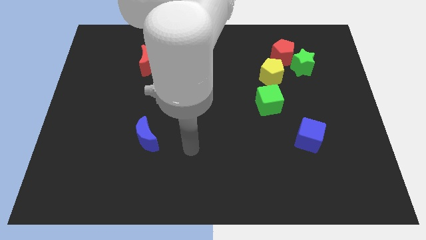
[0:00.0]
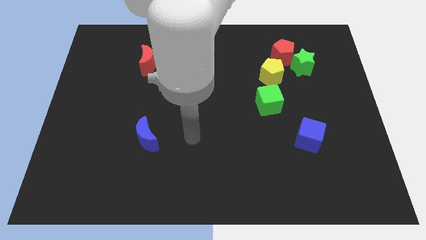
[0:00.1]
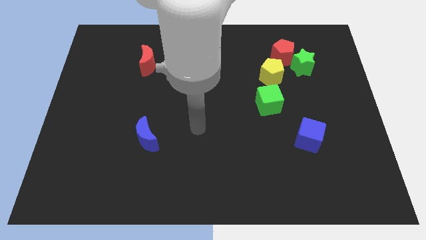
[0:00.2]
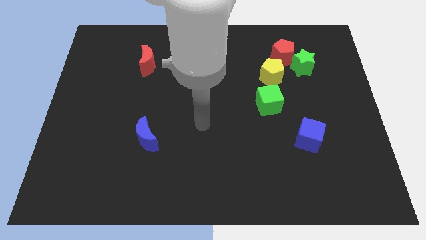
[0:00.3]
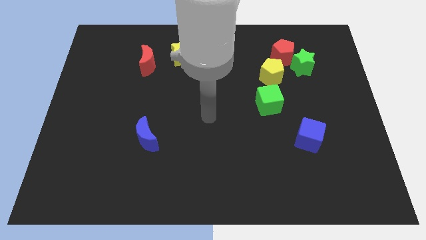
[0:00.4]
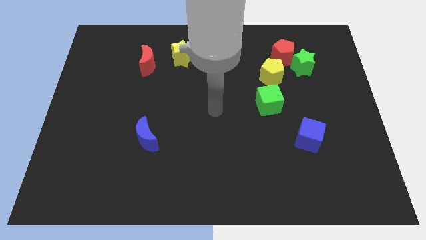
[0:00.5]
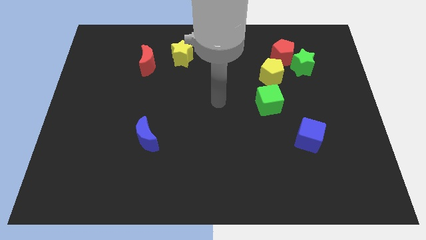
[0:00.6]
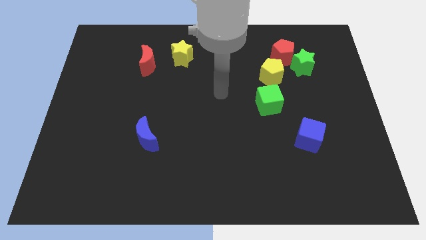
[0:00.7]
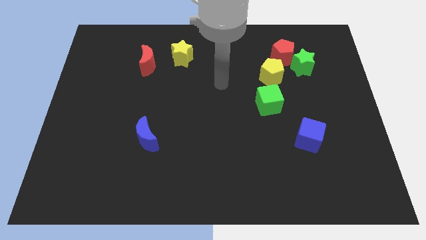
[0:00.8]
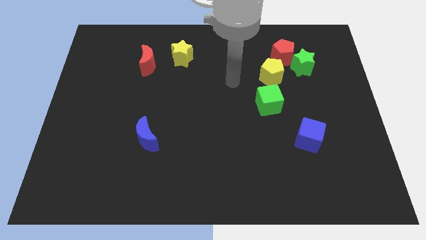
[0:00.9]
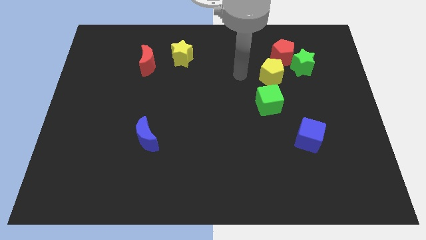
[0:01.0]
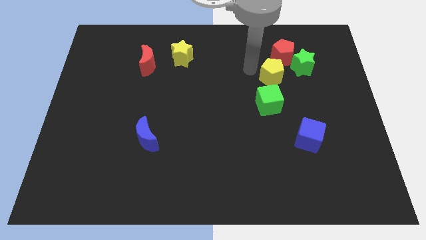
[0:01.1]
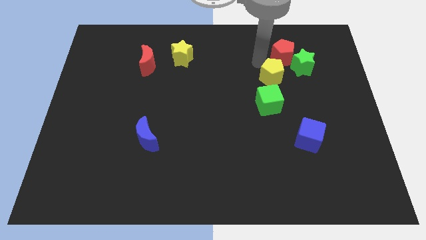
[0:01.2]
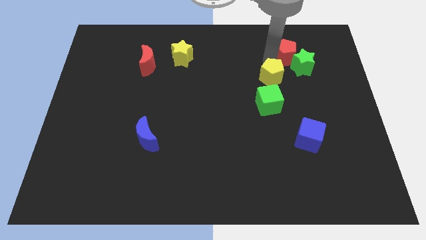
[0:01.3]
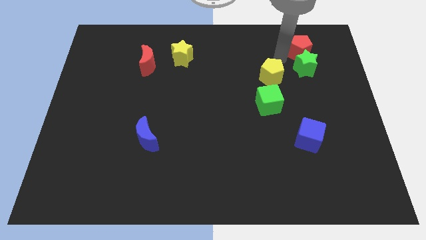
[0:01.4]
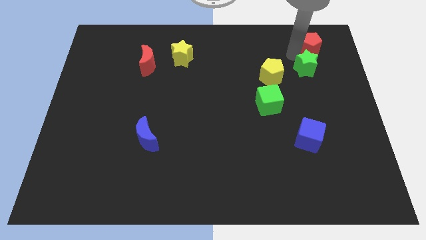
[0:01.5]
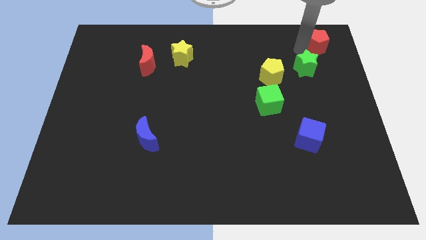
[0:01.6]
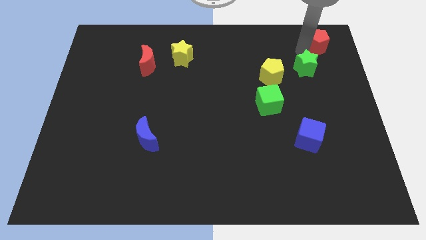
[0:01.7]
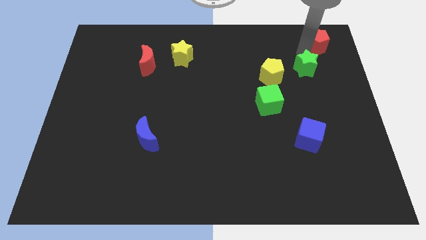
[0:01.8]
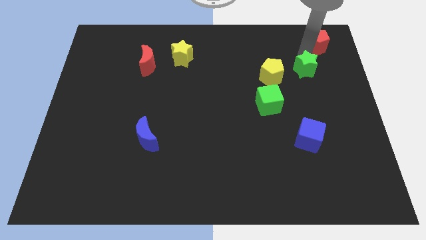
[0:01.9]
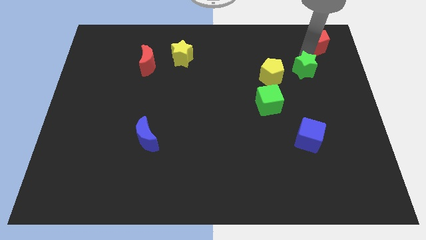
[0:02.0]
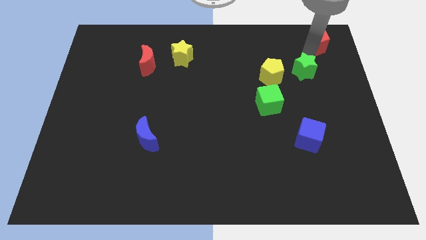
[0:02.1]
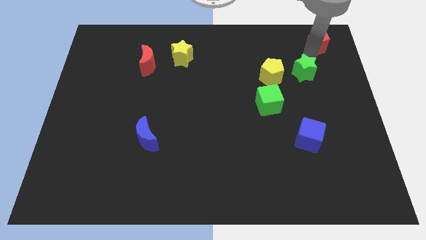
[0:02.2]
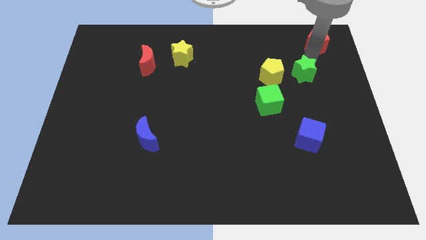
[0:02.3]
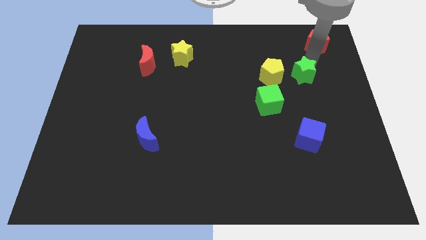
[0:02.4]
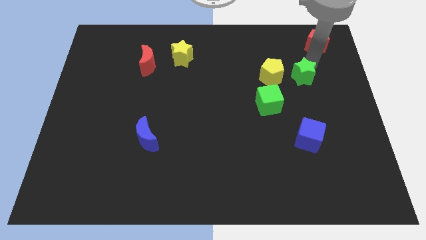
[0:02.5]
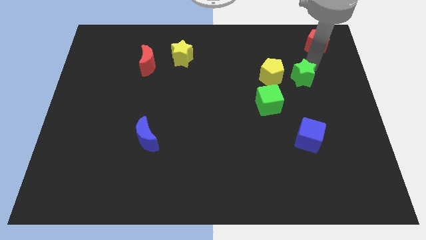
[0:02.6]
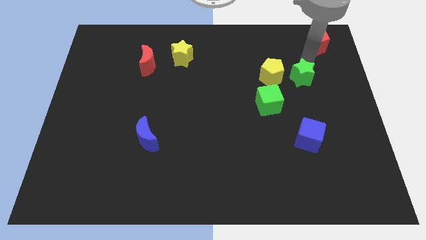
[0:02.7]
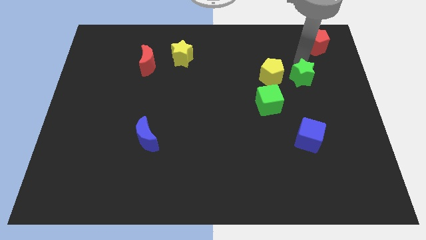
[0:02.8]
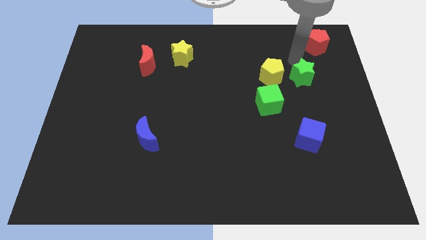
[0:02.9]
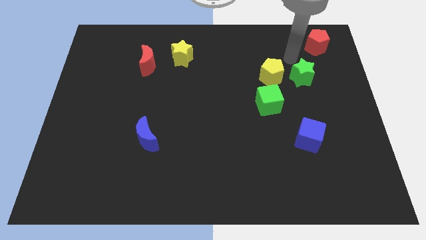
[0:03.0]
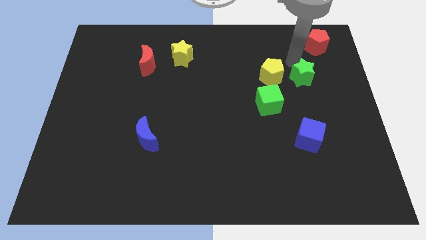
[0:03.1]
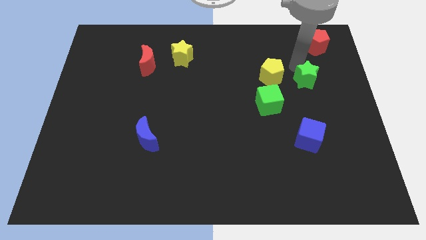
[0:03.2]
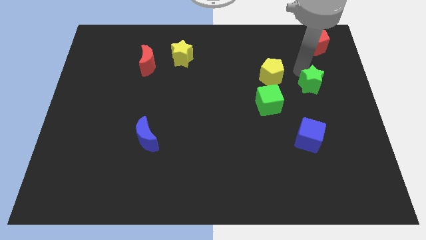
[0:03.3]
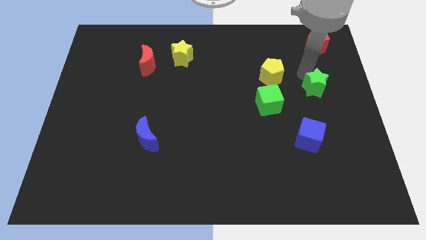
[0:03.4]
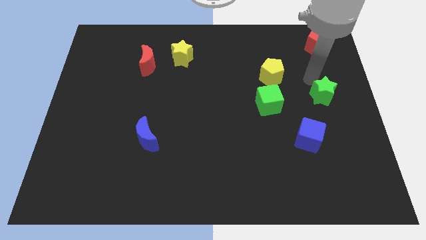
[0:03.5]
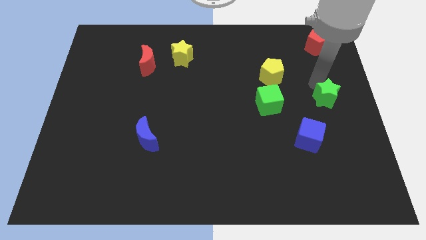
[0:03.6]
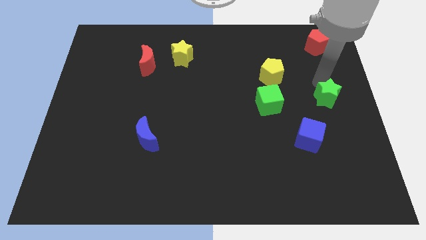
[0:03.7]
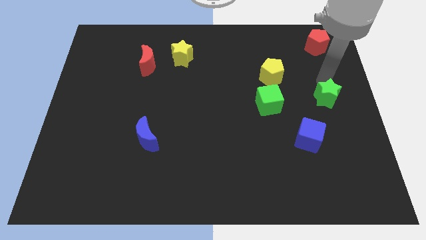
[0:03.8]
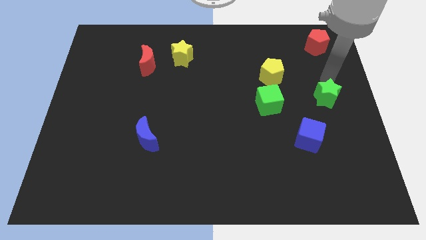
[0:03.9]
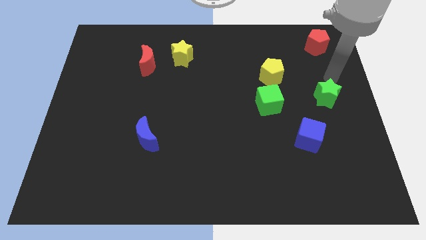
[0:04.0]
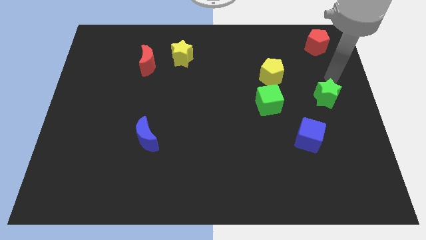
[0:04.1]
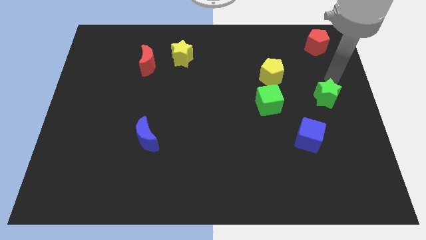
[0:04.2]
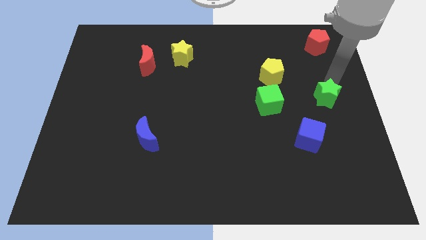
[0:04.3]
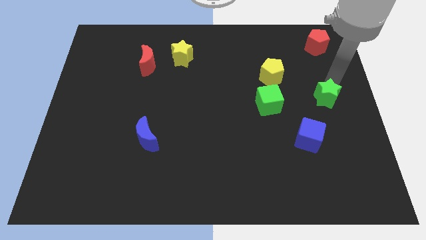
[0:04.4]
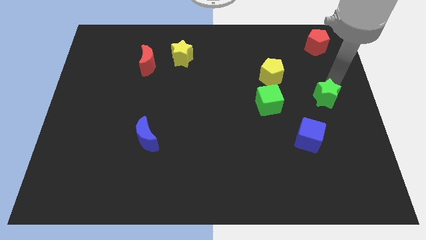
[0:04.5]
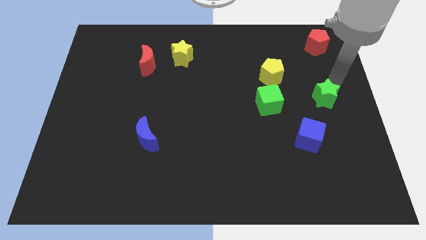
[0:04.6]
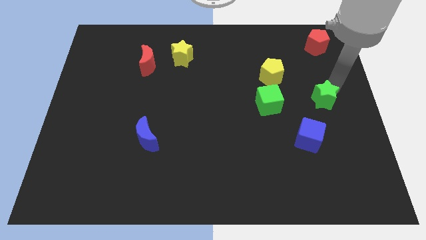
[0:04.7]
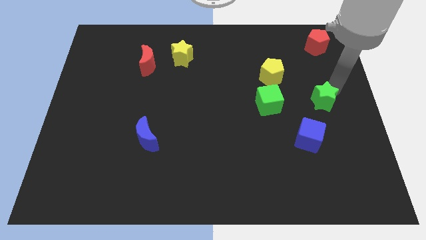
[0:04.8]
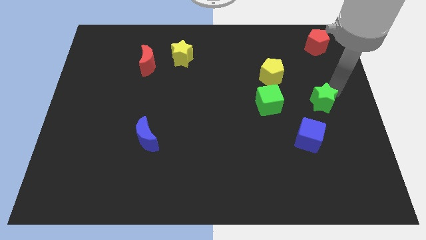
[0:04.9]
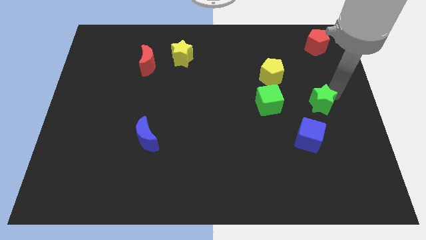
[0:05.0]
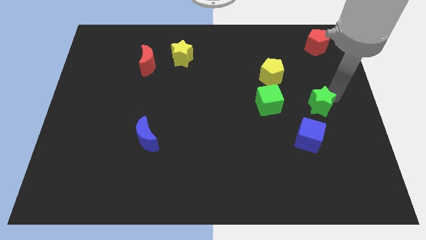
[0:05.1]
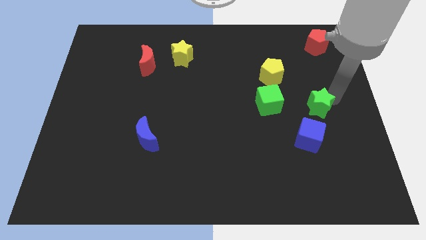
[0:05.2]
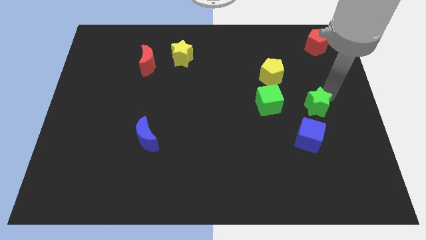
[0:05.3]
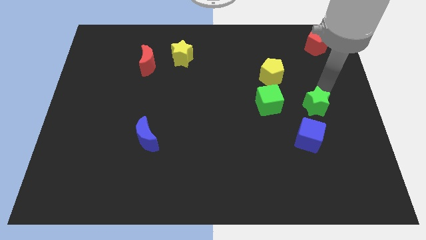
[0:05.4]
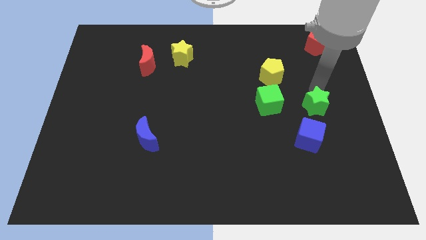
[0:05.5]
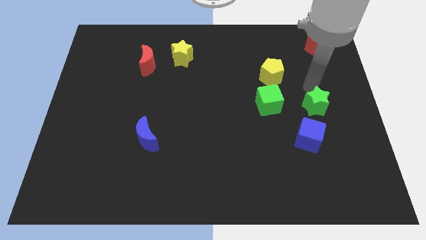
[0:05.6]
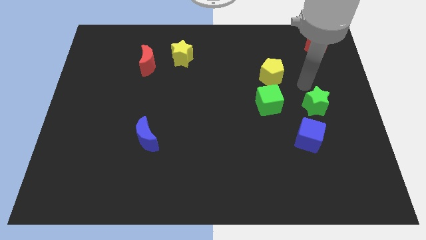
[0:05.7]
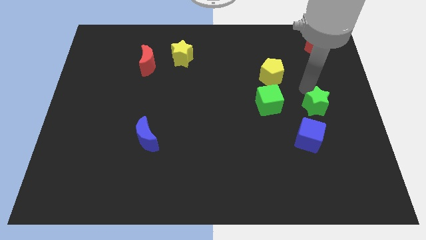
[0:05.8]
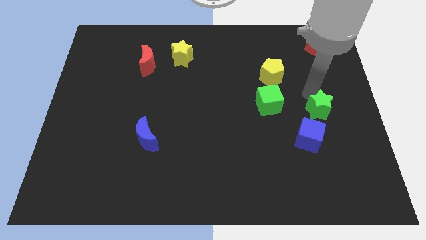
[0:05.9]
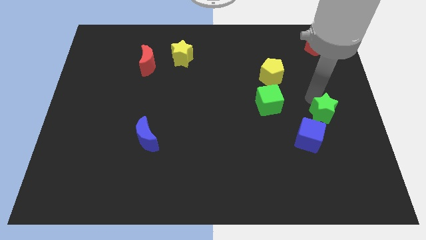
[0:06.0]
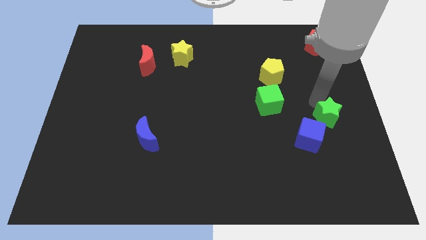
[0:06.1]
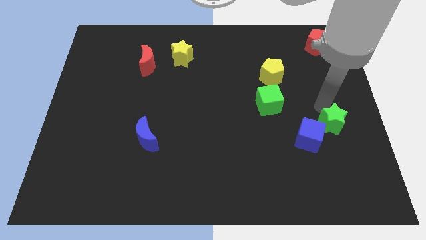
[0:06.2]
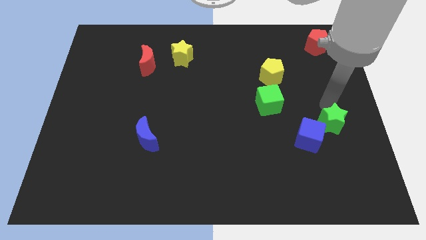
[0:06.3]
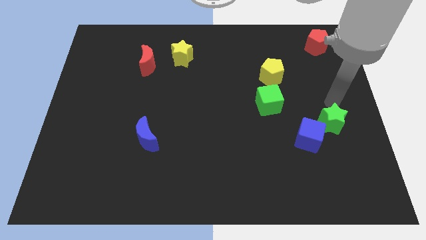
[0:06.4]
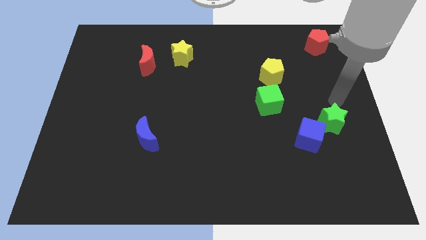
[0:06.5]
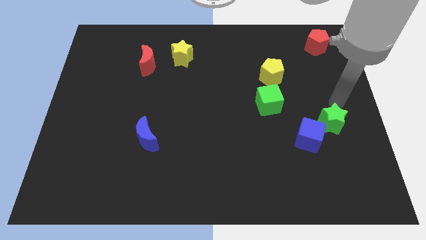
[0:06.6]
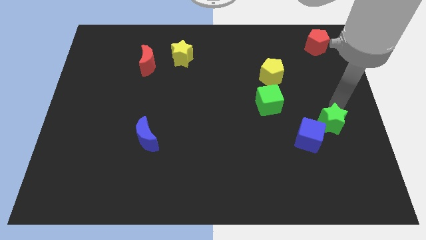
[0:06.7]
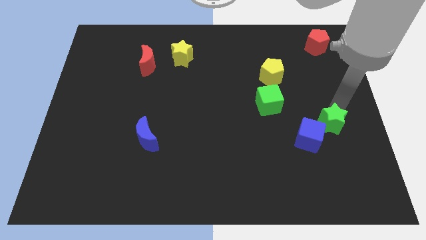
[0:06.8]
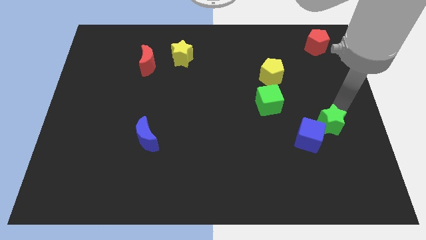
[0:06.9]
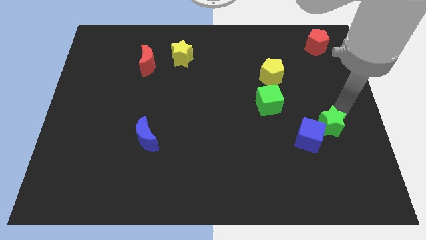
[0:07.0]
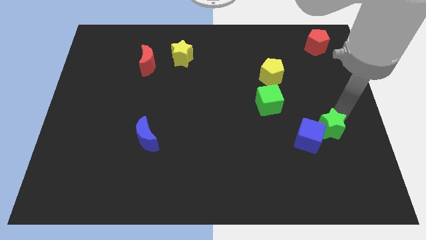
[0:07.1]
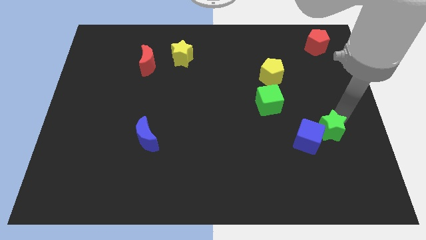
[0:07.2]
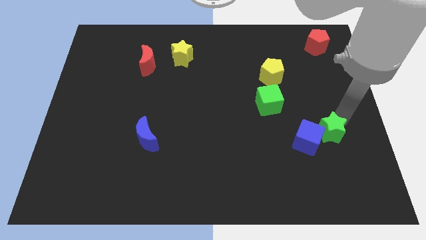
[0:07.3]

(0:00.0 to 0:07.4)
move the green star downwards

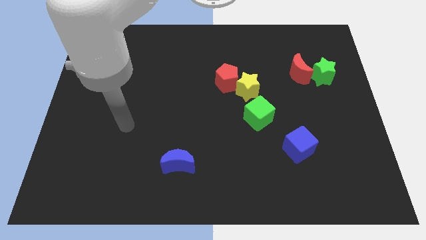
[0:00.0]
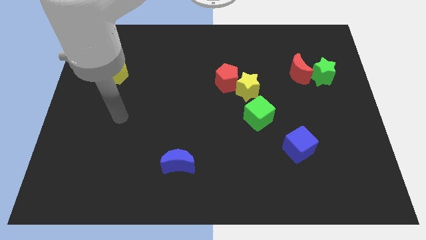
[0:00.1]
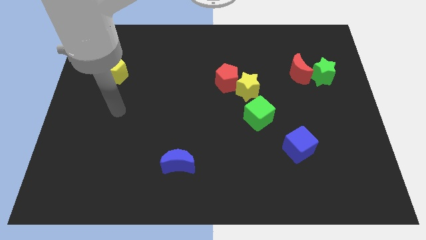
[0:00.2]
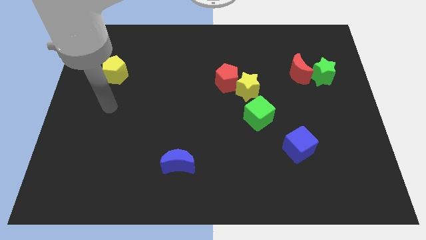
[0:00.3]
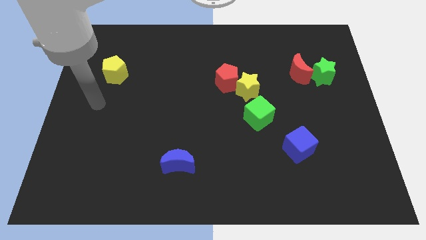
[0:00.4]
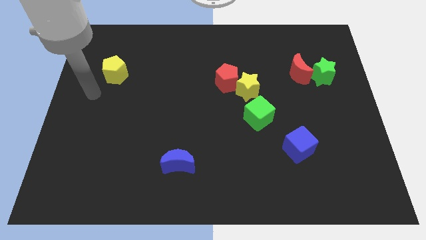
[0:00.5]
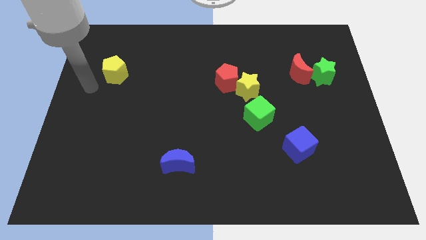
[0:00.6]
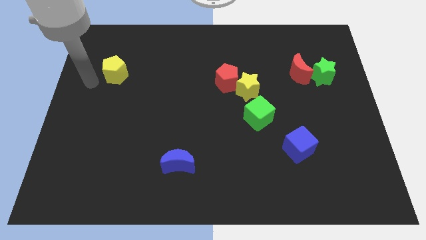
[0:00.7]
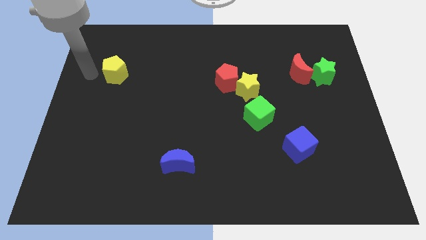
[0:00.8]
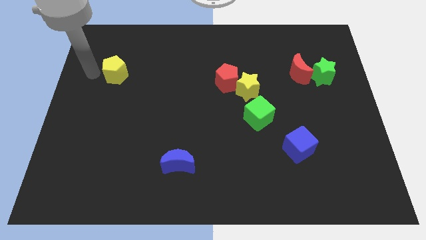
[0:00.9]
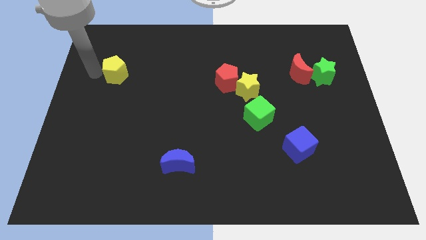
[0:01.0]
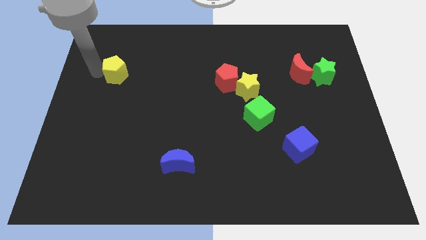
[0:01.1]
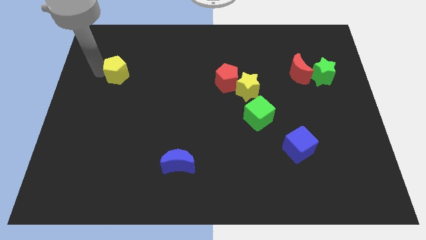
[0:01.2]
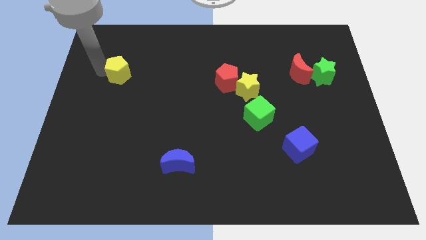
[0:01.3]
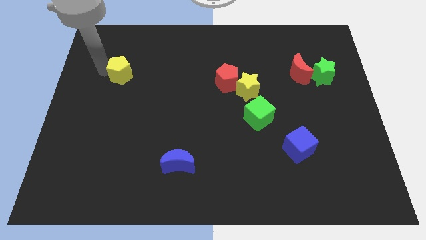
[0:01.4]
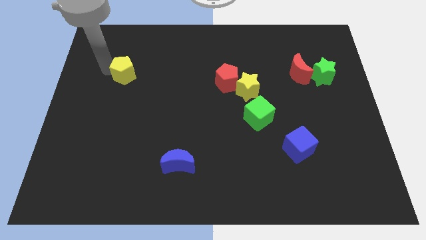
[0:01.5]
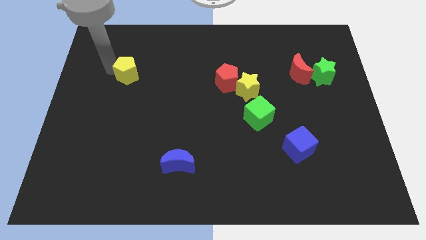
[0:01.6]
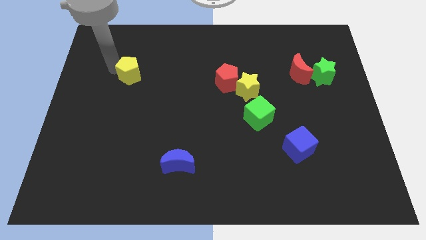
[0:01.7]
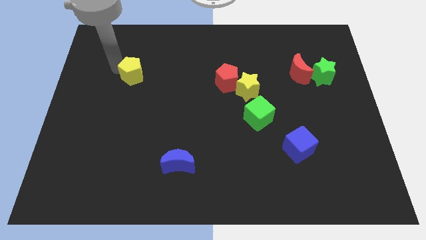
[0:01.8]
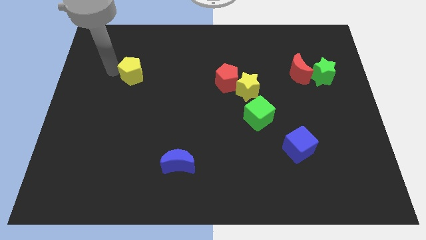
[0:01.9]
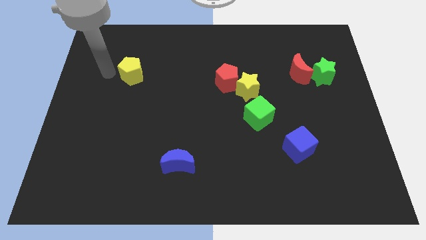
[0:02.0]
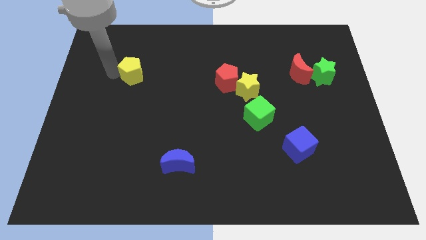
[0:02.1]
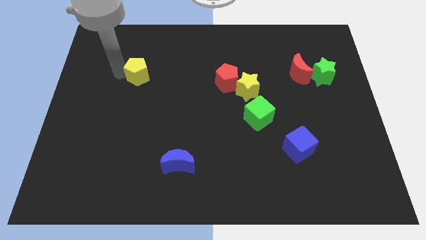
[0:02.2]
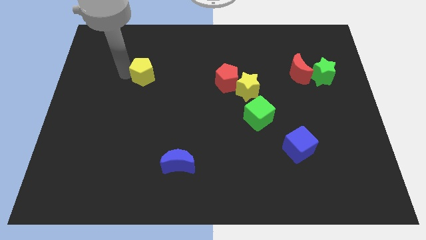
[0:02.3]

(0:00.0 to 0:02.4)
slightly push the yellow pentagon to the right
